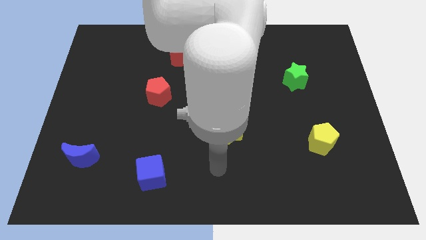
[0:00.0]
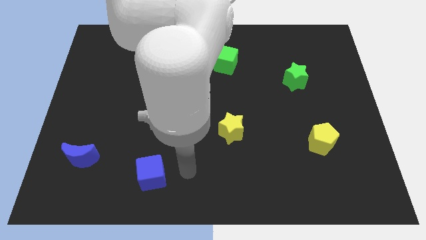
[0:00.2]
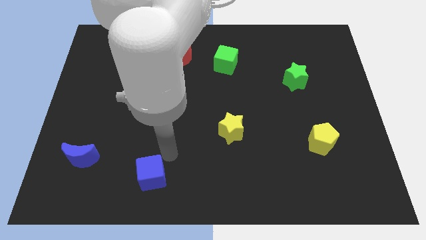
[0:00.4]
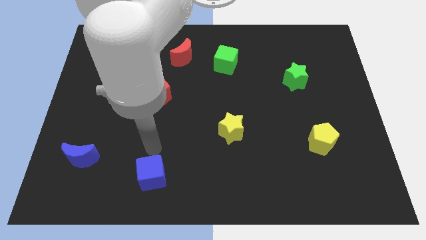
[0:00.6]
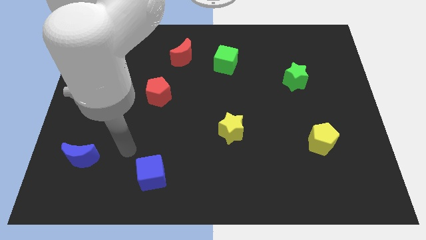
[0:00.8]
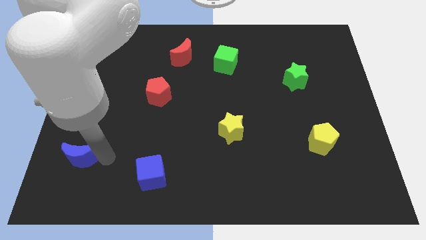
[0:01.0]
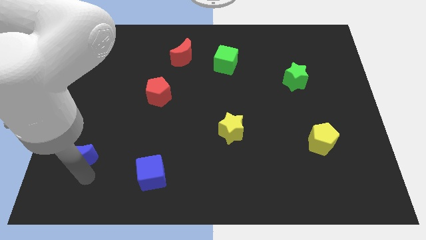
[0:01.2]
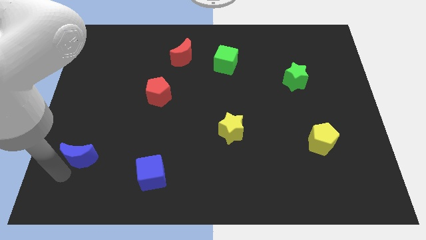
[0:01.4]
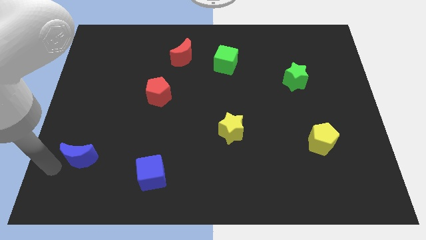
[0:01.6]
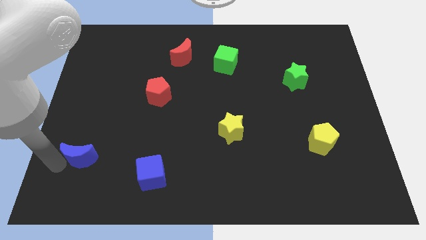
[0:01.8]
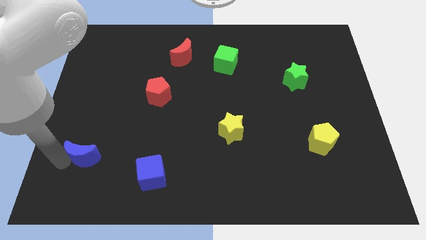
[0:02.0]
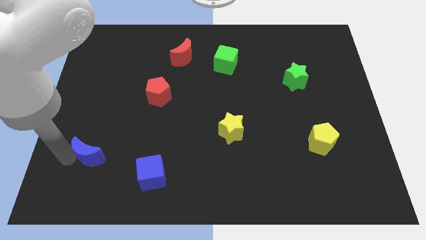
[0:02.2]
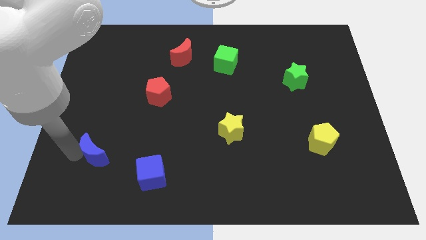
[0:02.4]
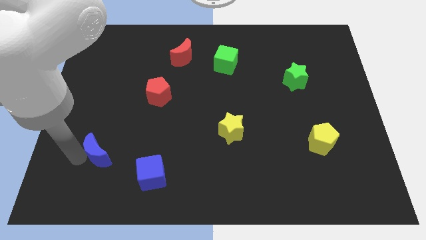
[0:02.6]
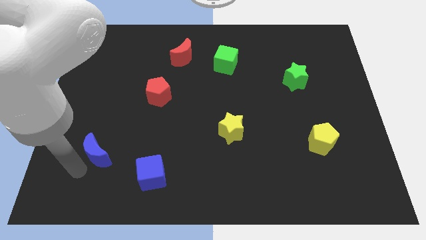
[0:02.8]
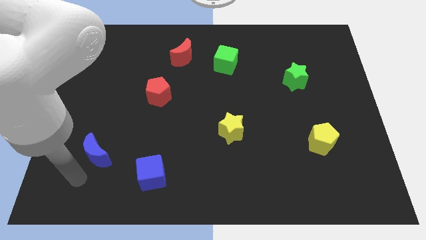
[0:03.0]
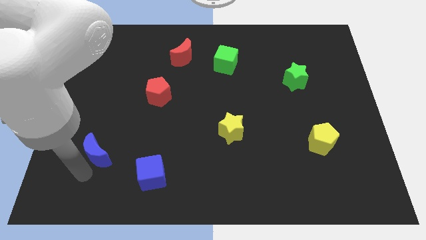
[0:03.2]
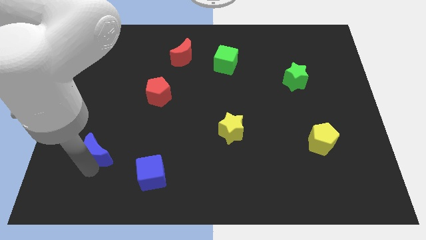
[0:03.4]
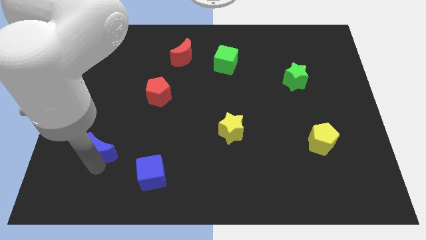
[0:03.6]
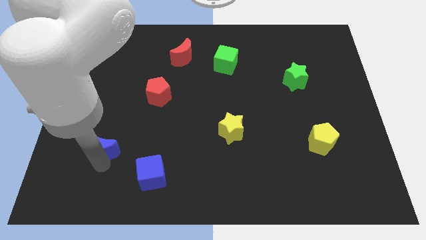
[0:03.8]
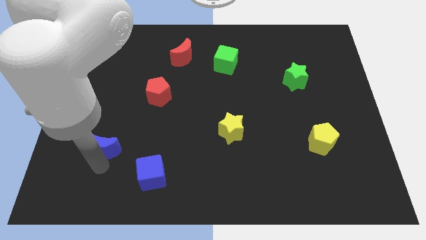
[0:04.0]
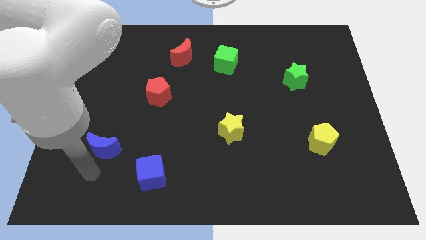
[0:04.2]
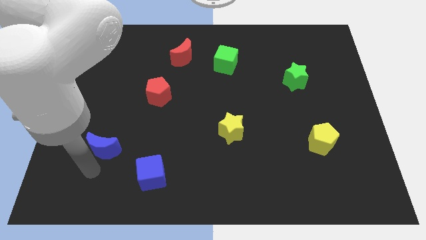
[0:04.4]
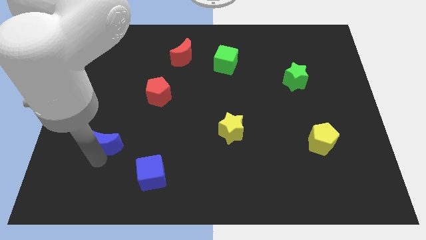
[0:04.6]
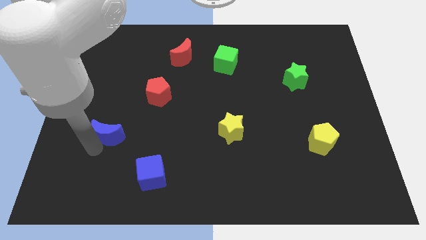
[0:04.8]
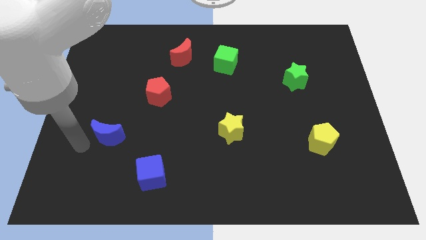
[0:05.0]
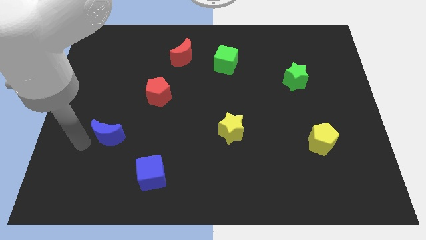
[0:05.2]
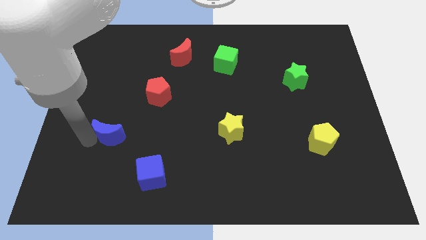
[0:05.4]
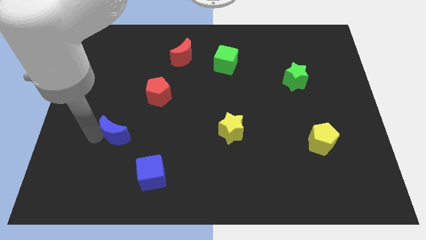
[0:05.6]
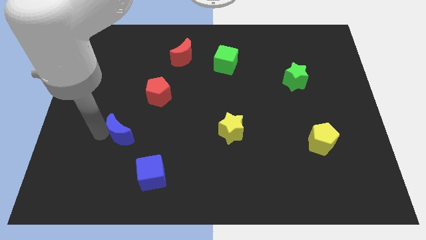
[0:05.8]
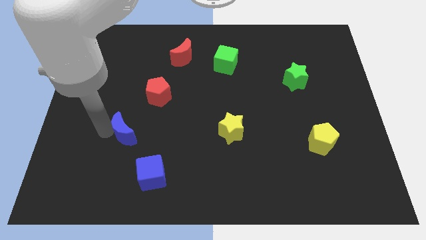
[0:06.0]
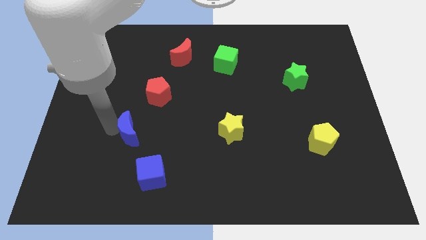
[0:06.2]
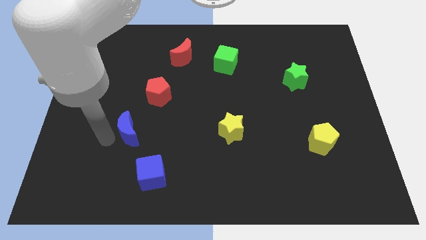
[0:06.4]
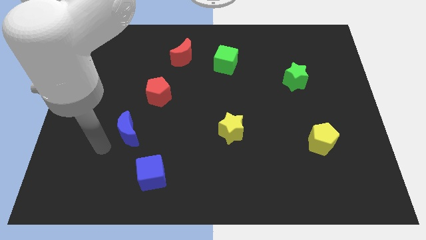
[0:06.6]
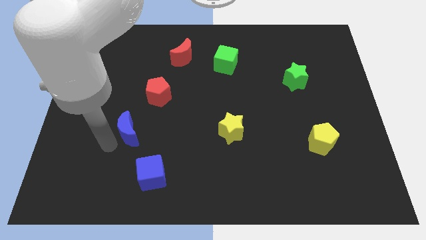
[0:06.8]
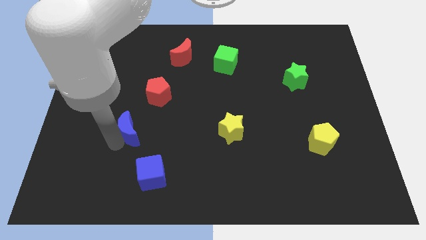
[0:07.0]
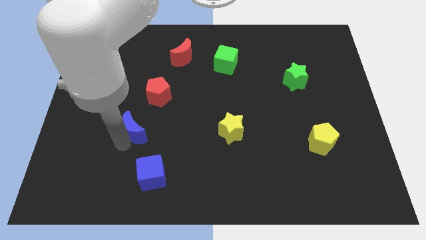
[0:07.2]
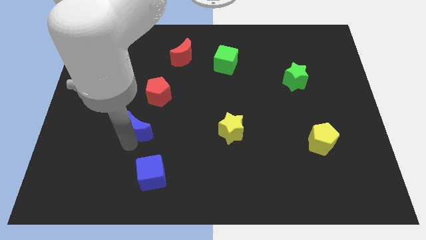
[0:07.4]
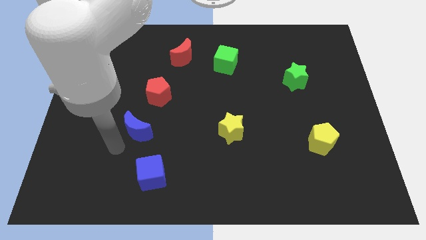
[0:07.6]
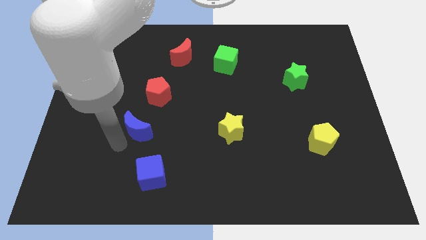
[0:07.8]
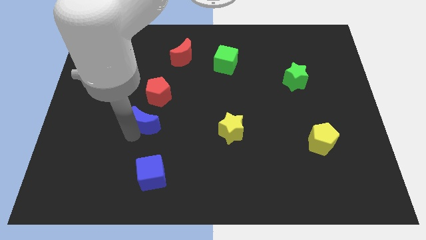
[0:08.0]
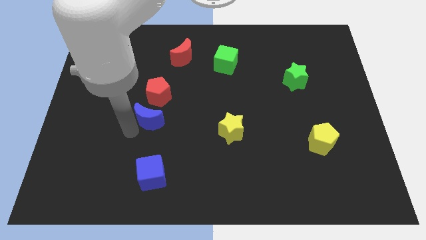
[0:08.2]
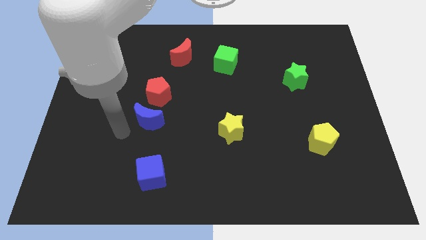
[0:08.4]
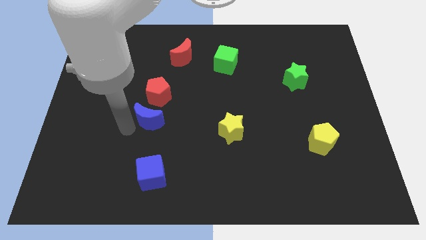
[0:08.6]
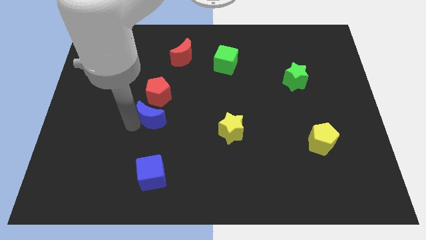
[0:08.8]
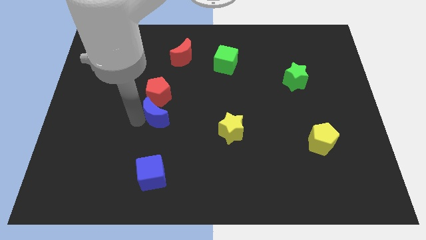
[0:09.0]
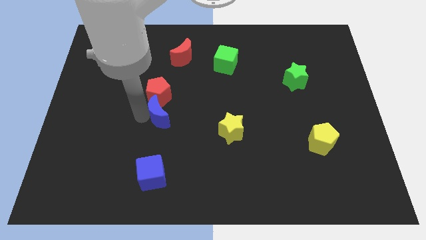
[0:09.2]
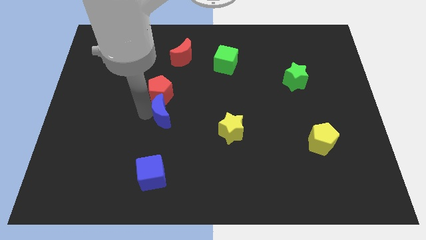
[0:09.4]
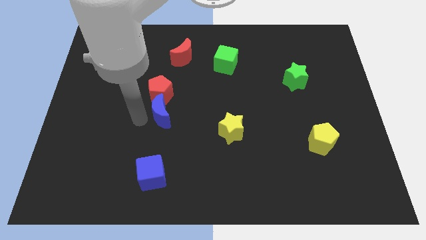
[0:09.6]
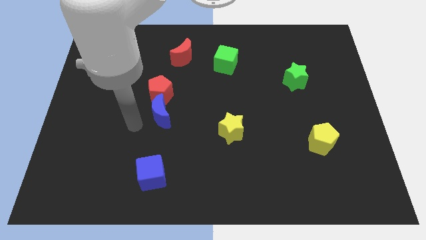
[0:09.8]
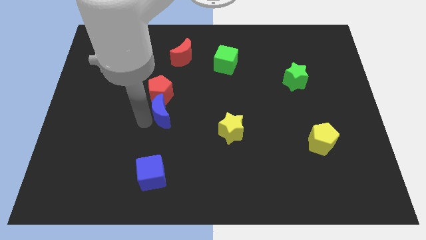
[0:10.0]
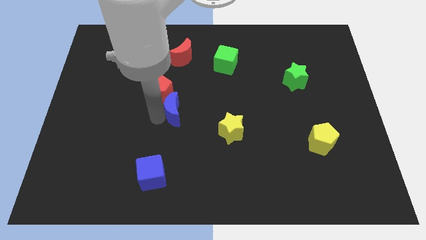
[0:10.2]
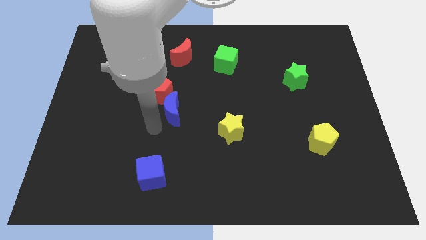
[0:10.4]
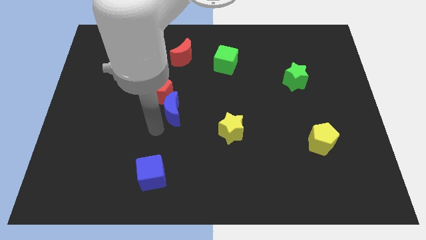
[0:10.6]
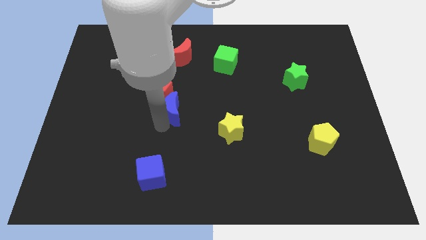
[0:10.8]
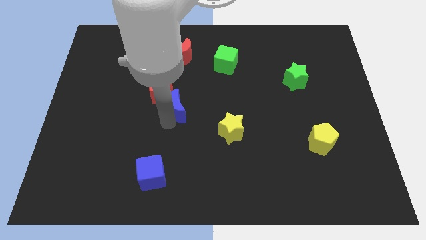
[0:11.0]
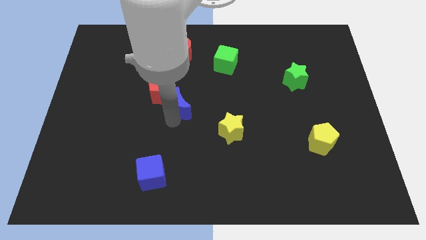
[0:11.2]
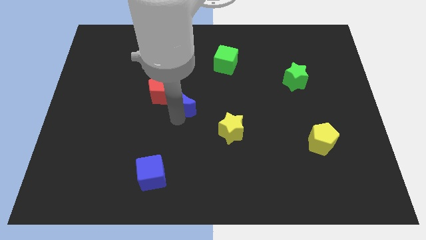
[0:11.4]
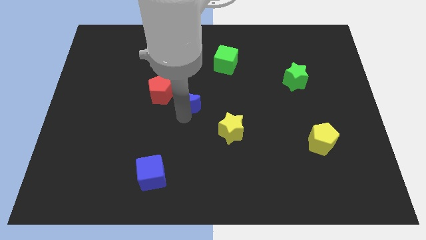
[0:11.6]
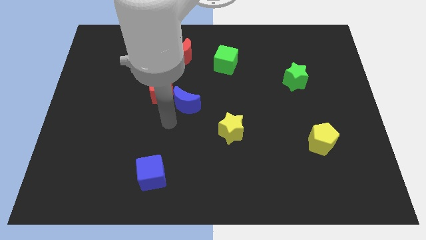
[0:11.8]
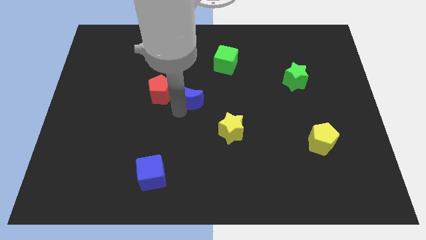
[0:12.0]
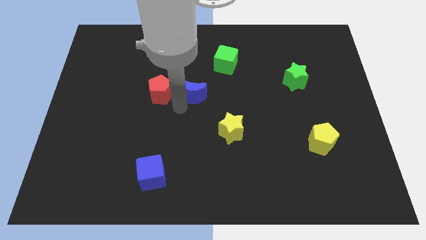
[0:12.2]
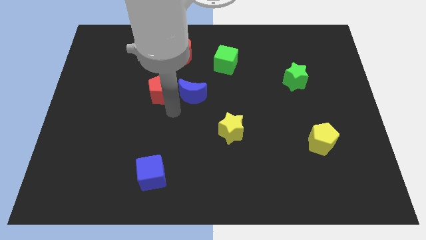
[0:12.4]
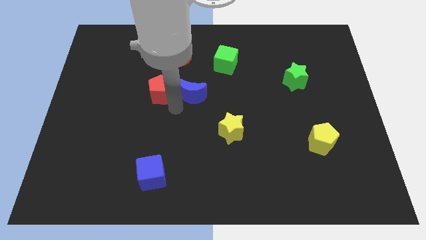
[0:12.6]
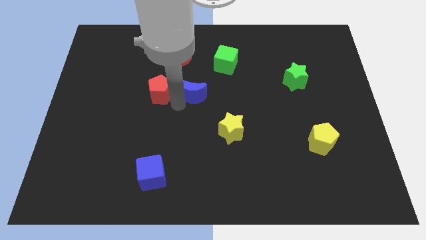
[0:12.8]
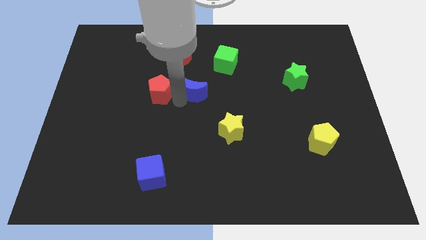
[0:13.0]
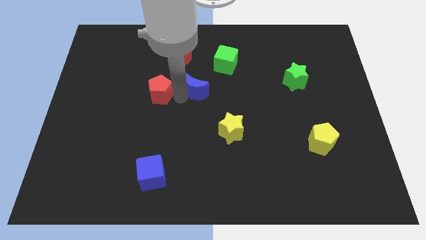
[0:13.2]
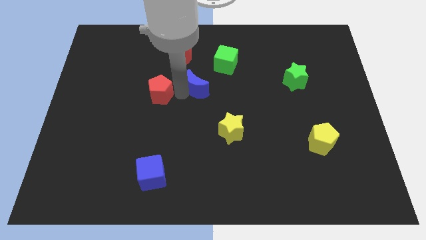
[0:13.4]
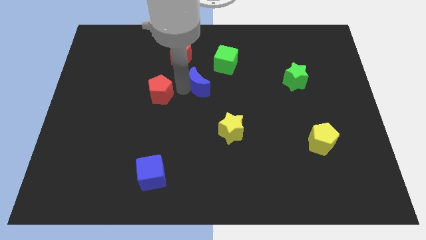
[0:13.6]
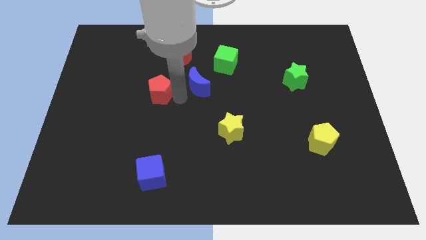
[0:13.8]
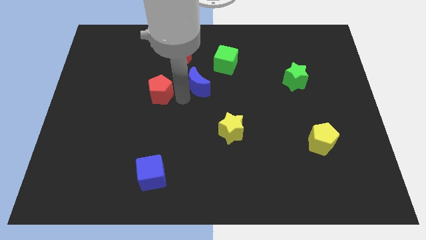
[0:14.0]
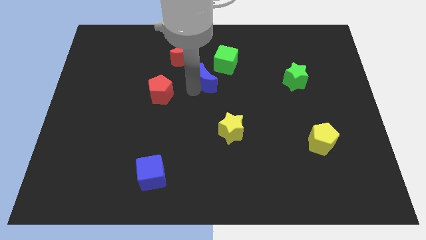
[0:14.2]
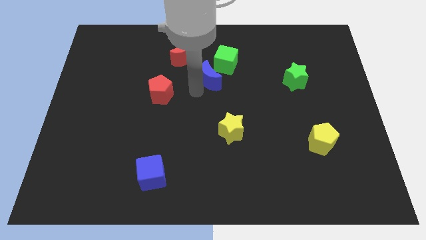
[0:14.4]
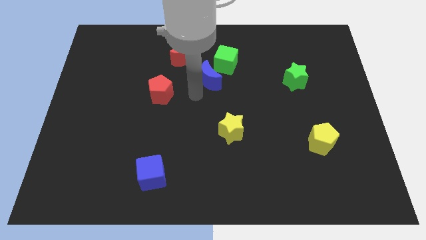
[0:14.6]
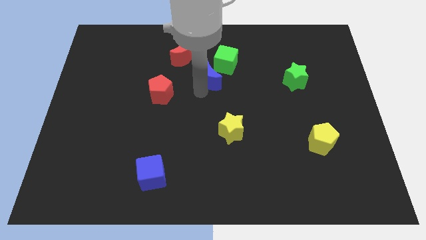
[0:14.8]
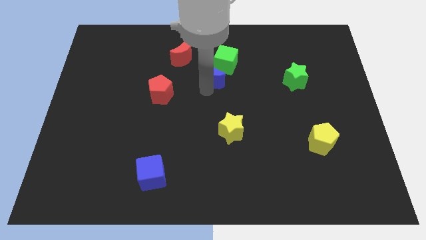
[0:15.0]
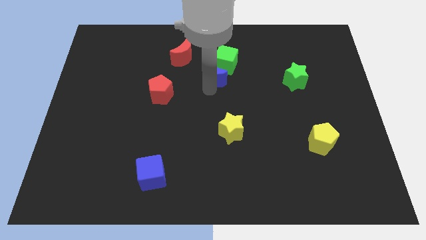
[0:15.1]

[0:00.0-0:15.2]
slide the blue moon close to the green cube
